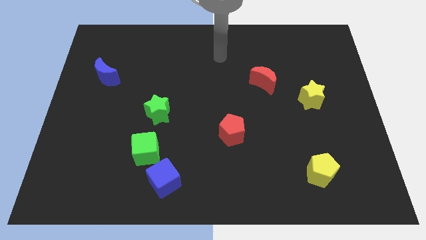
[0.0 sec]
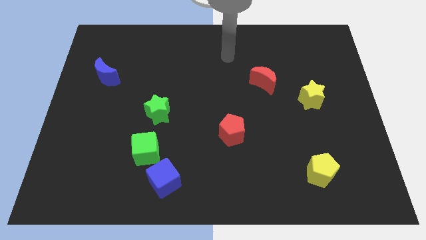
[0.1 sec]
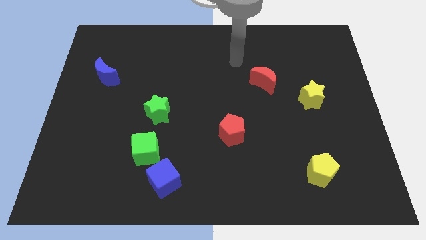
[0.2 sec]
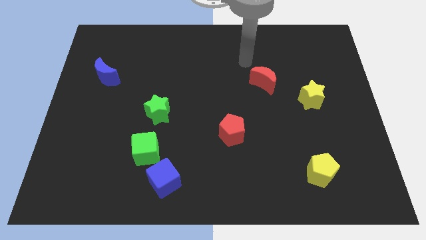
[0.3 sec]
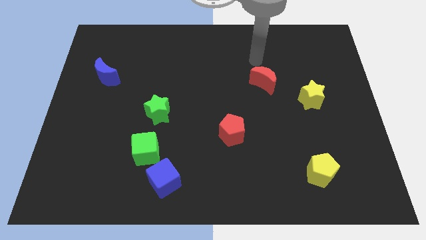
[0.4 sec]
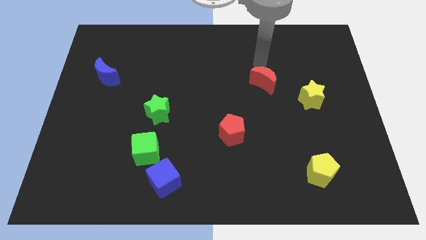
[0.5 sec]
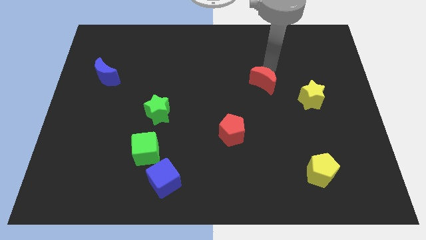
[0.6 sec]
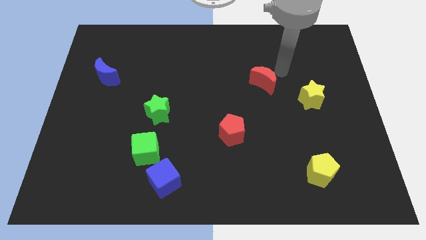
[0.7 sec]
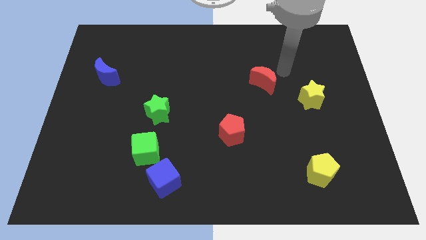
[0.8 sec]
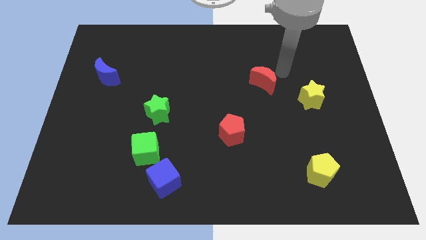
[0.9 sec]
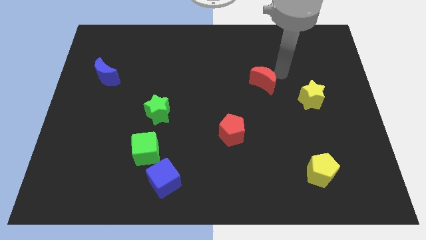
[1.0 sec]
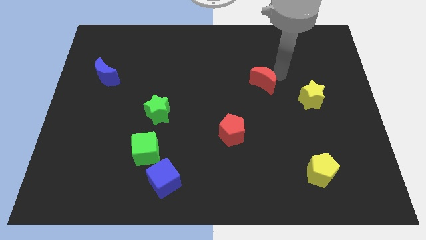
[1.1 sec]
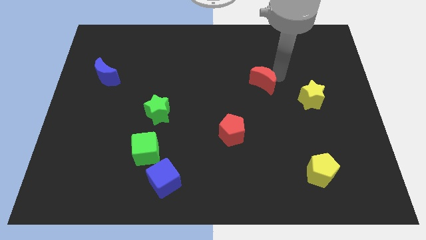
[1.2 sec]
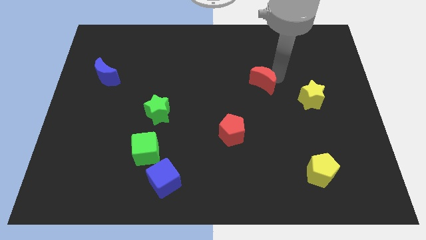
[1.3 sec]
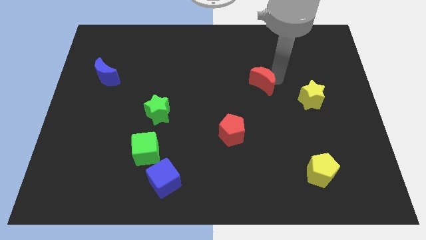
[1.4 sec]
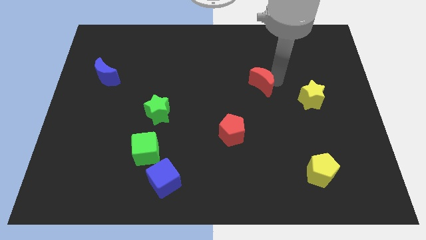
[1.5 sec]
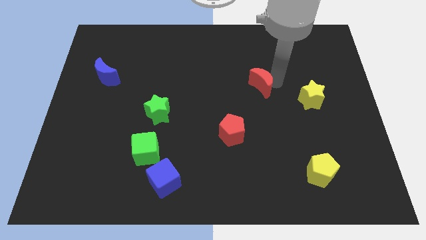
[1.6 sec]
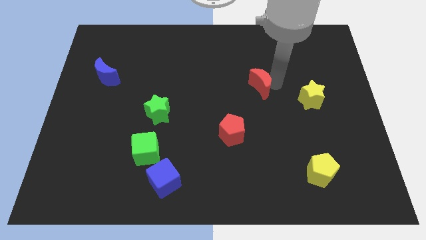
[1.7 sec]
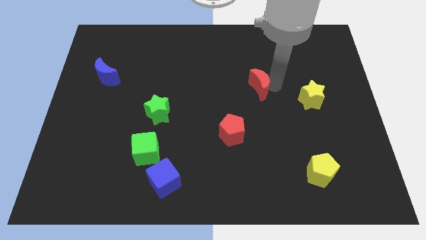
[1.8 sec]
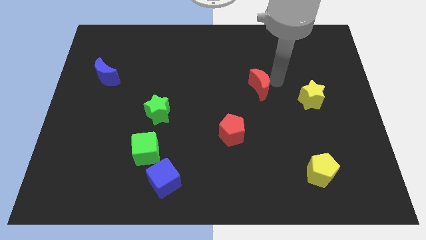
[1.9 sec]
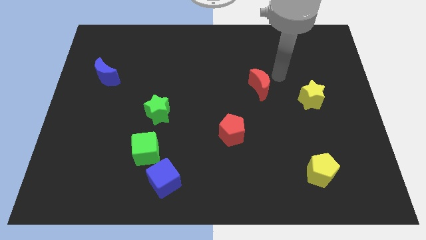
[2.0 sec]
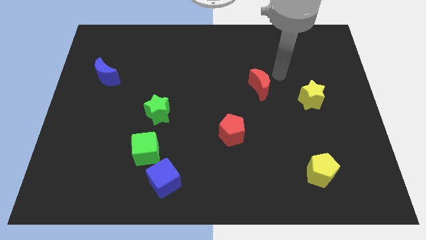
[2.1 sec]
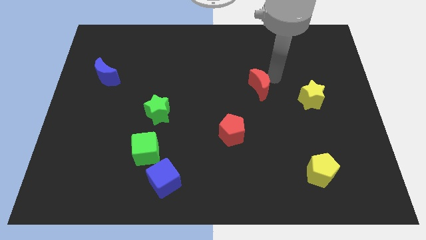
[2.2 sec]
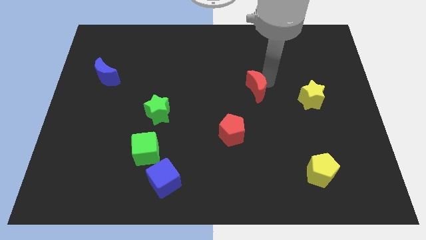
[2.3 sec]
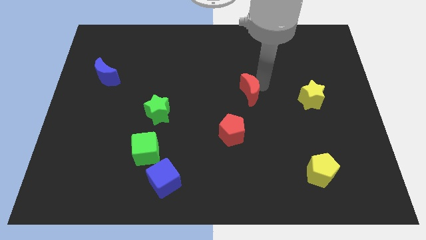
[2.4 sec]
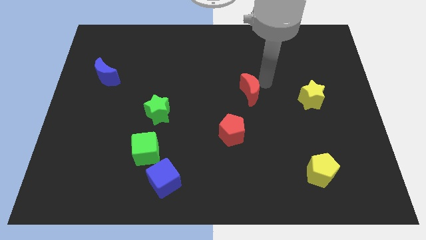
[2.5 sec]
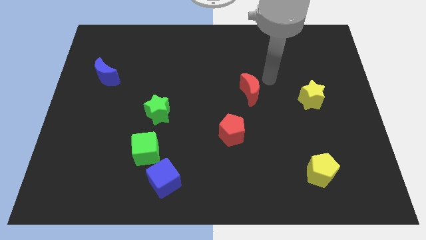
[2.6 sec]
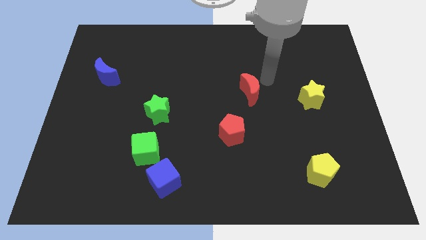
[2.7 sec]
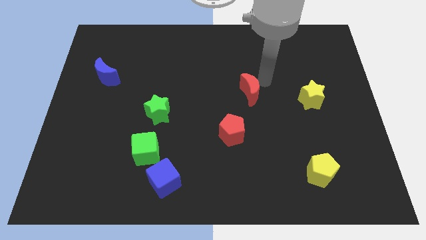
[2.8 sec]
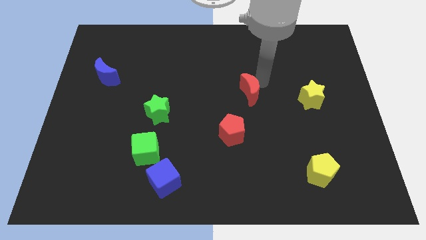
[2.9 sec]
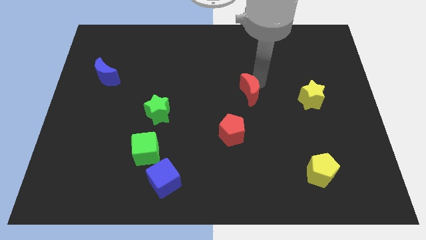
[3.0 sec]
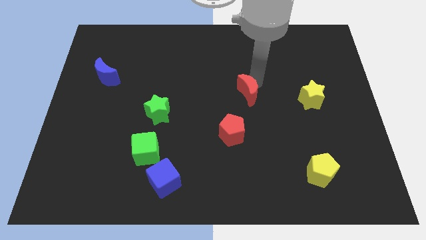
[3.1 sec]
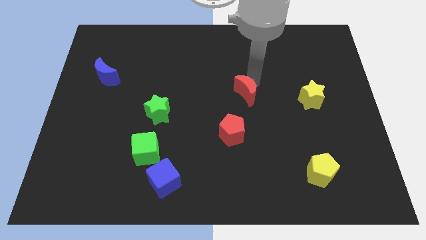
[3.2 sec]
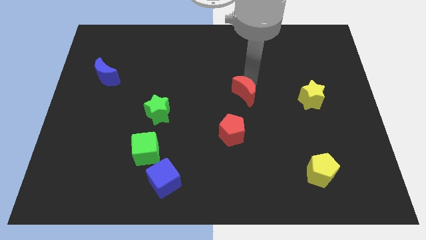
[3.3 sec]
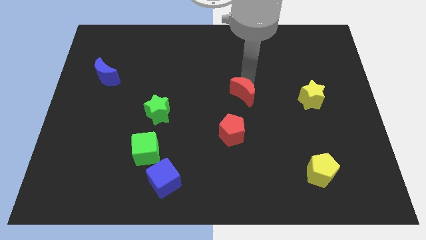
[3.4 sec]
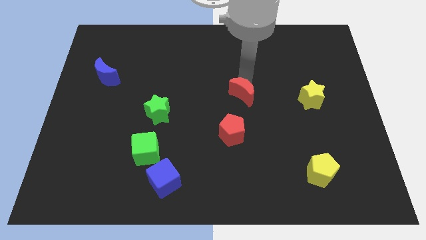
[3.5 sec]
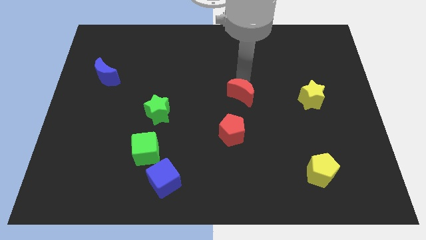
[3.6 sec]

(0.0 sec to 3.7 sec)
slightly push the red moon down and then left

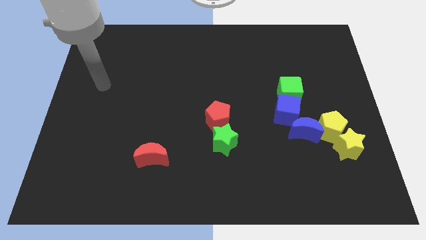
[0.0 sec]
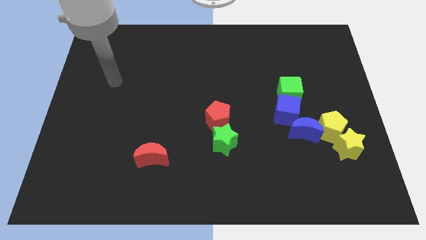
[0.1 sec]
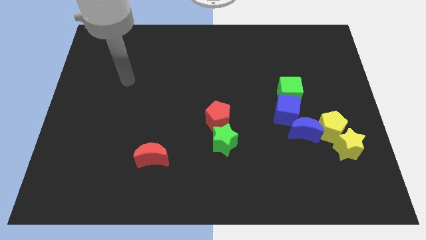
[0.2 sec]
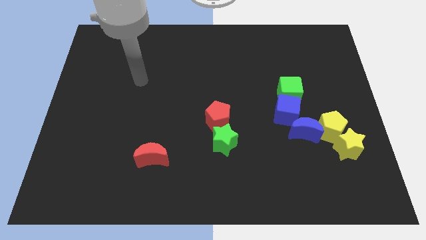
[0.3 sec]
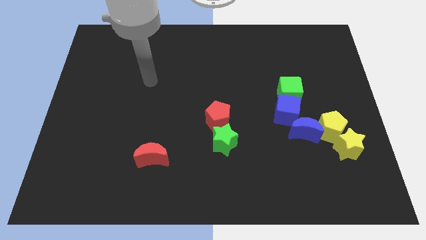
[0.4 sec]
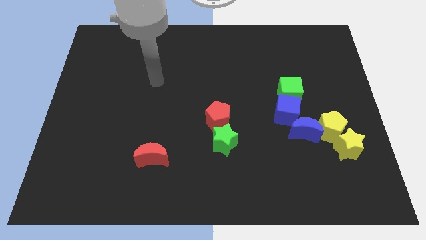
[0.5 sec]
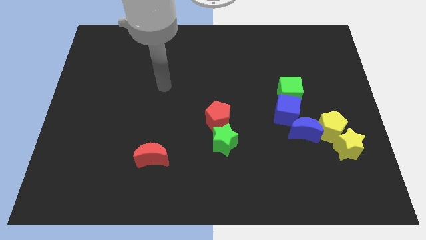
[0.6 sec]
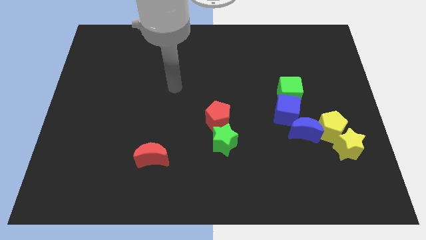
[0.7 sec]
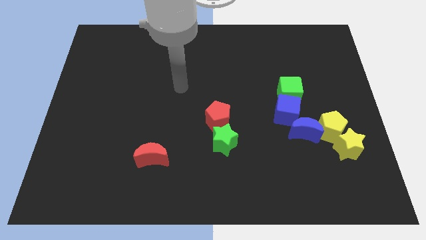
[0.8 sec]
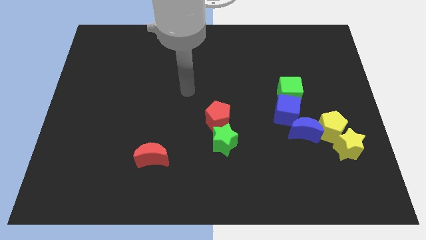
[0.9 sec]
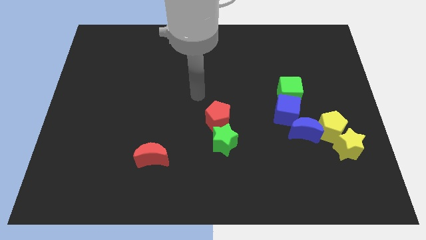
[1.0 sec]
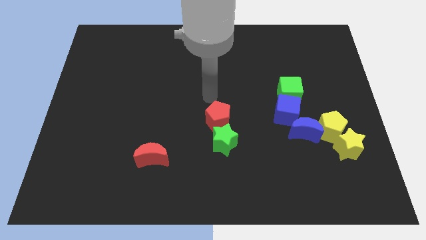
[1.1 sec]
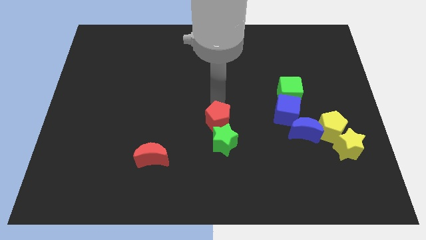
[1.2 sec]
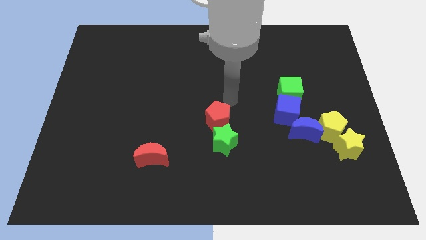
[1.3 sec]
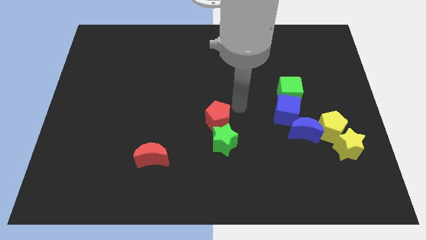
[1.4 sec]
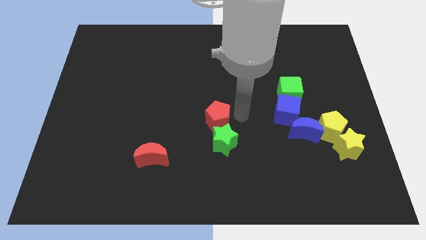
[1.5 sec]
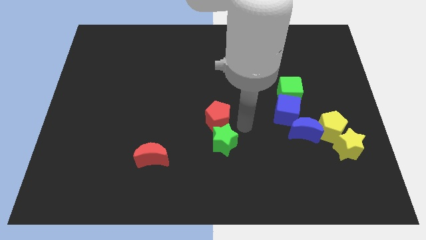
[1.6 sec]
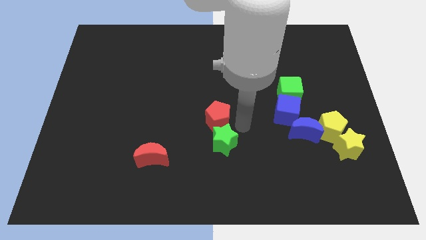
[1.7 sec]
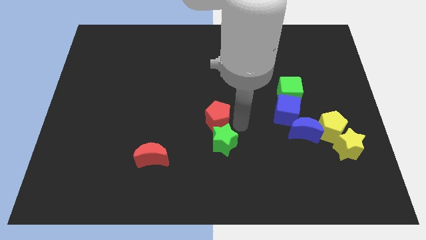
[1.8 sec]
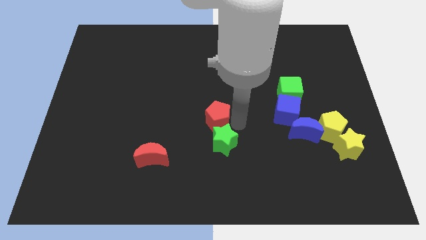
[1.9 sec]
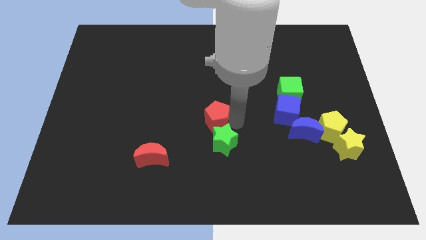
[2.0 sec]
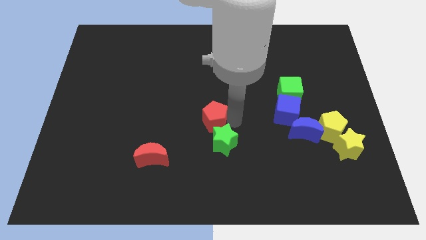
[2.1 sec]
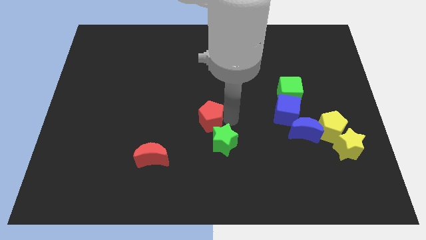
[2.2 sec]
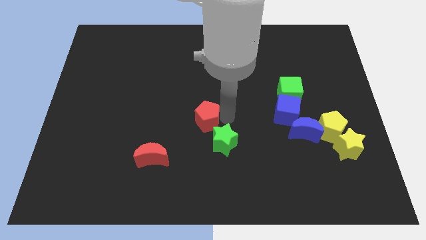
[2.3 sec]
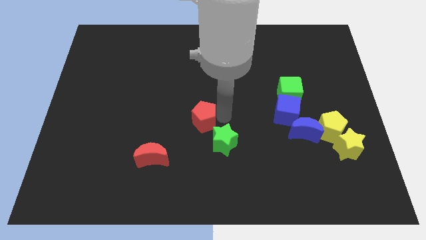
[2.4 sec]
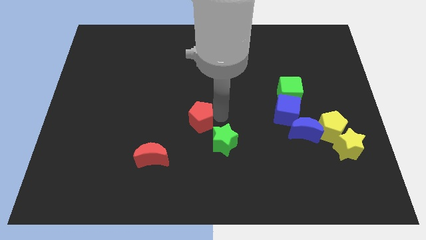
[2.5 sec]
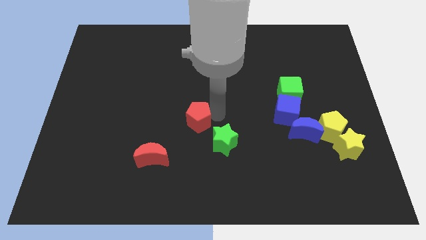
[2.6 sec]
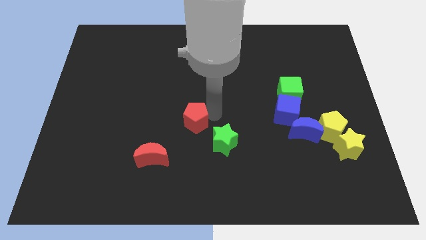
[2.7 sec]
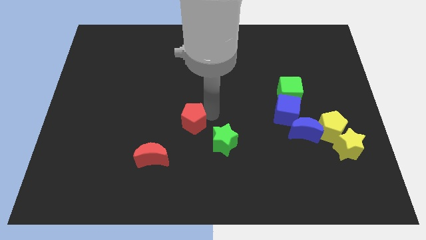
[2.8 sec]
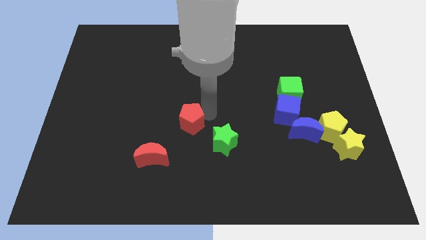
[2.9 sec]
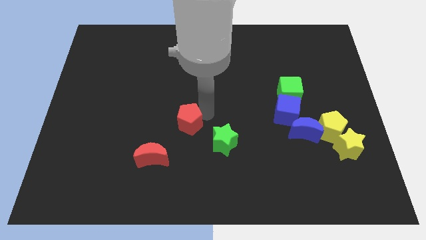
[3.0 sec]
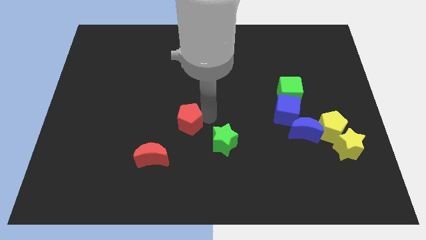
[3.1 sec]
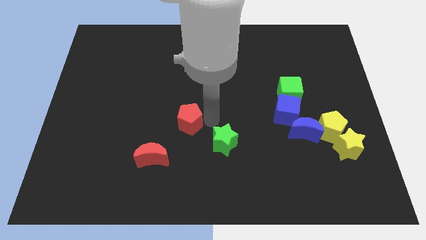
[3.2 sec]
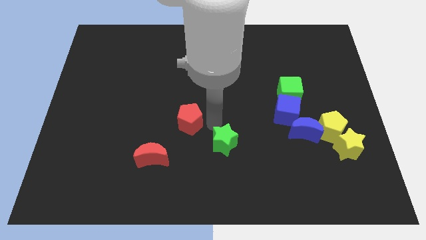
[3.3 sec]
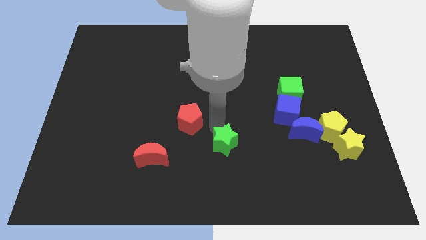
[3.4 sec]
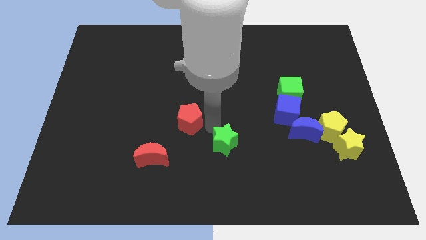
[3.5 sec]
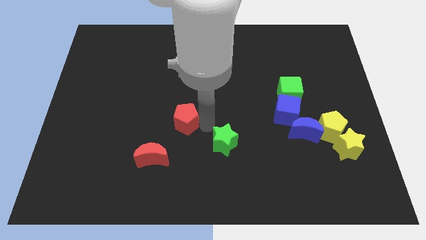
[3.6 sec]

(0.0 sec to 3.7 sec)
push the red pentagon to the left somewhat

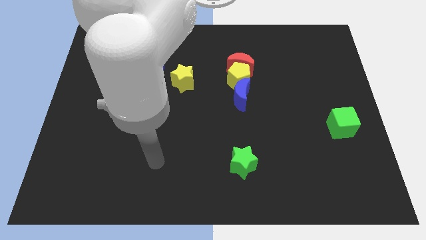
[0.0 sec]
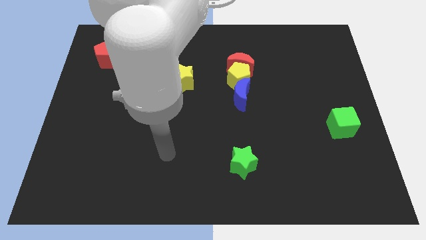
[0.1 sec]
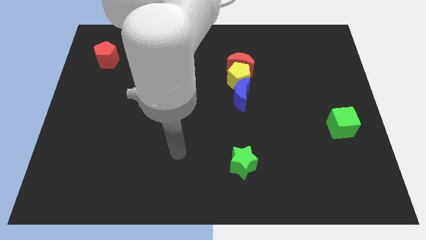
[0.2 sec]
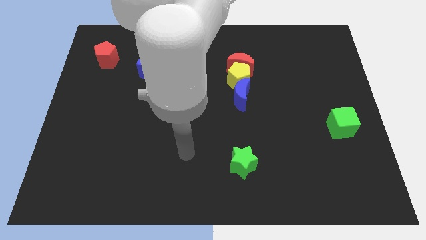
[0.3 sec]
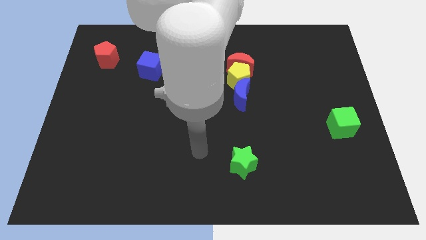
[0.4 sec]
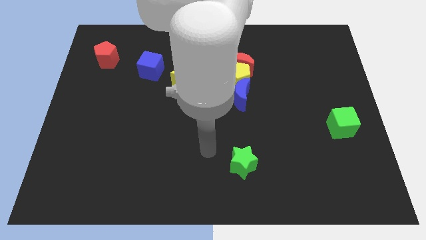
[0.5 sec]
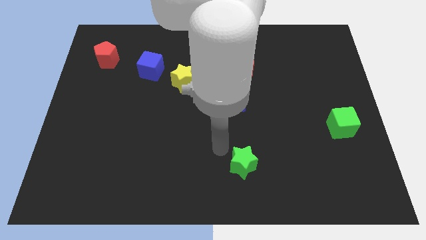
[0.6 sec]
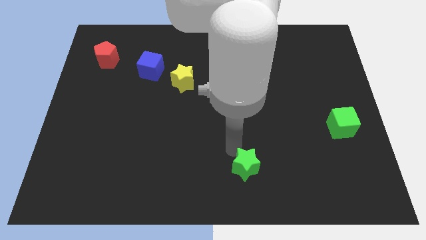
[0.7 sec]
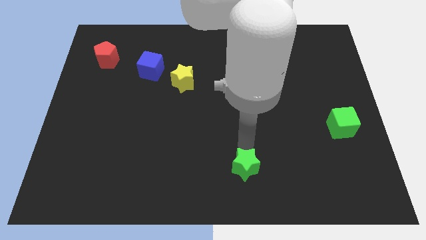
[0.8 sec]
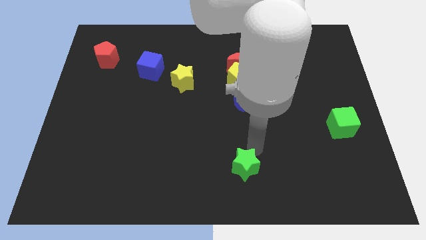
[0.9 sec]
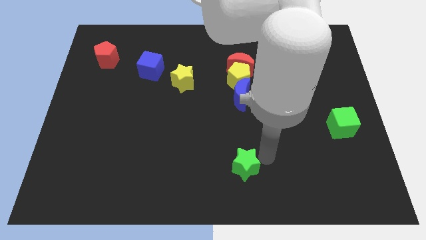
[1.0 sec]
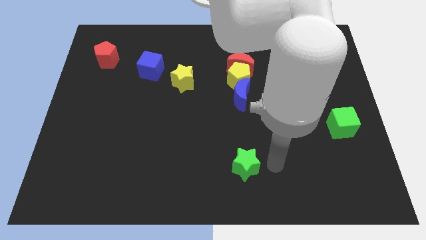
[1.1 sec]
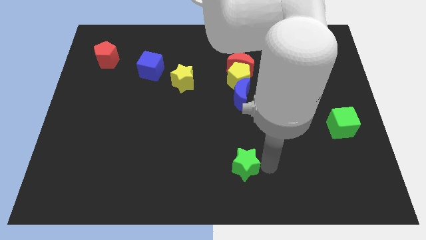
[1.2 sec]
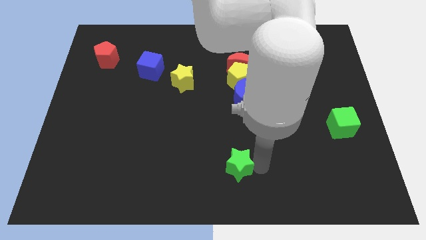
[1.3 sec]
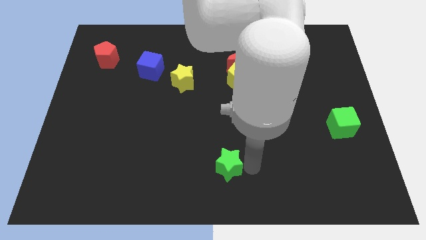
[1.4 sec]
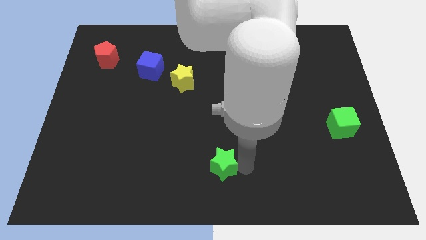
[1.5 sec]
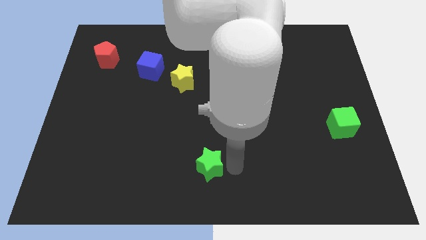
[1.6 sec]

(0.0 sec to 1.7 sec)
slightly move the green star to the left
